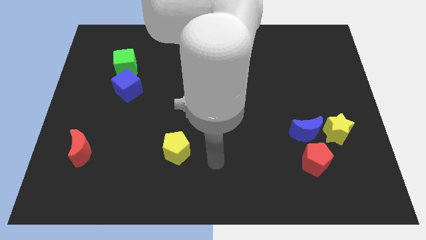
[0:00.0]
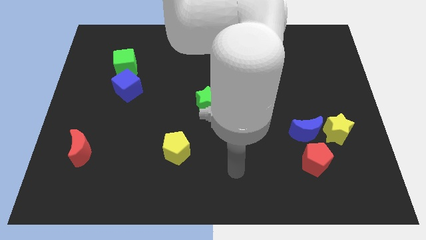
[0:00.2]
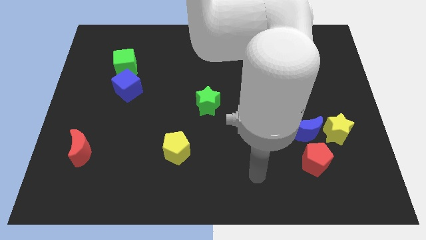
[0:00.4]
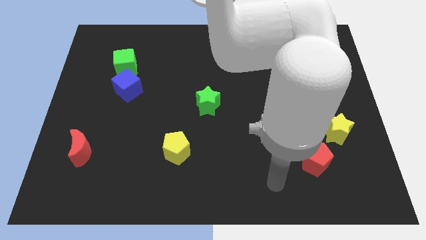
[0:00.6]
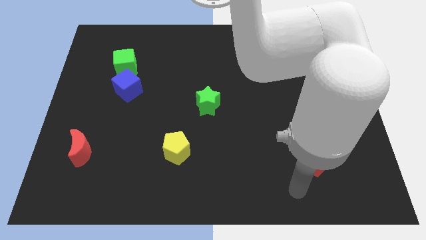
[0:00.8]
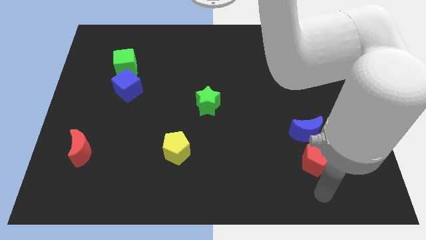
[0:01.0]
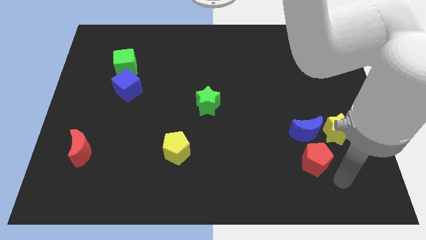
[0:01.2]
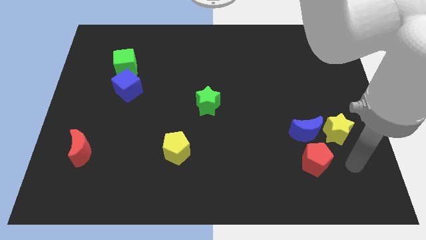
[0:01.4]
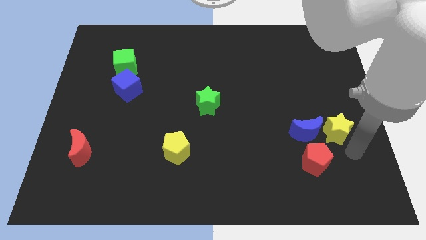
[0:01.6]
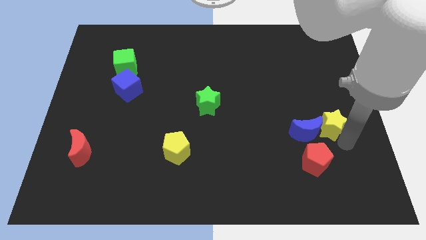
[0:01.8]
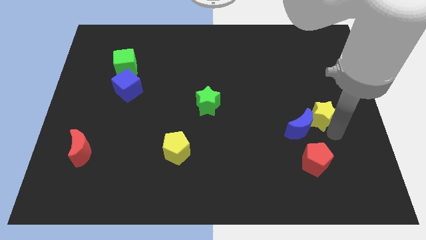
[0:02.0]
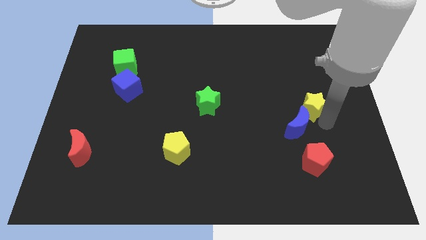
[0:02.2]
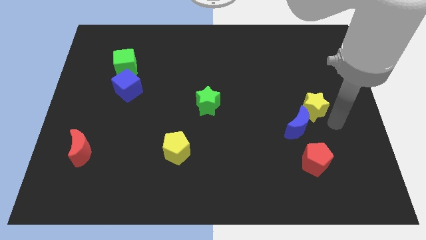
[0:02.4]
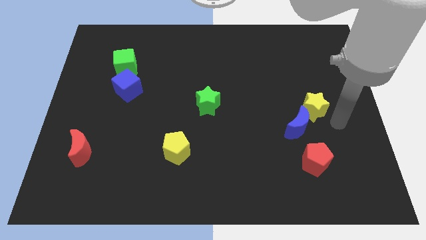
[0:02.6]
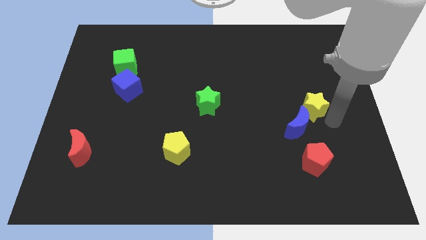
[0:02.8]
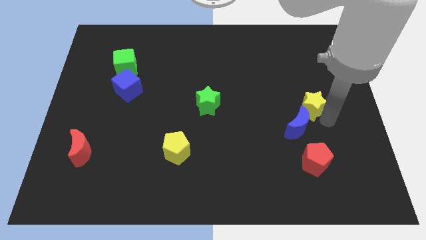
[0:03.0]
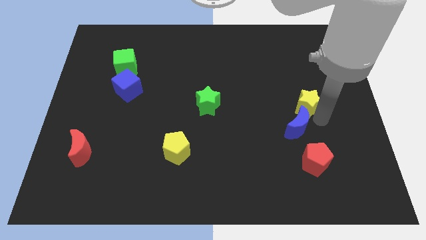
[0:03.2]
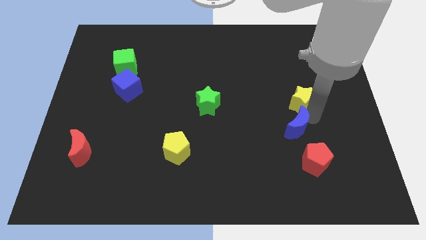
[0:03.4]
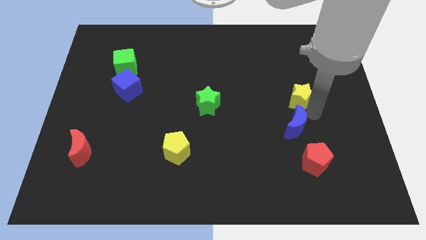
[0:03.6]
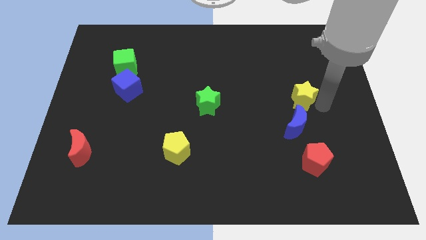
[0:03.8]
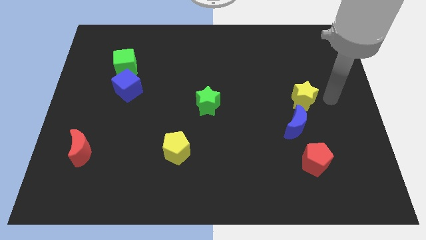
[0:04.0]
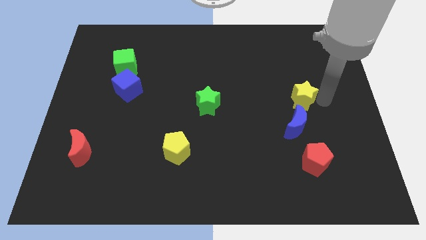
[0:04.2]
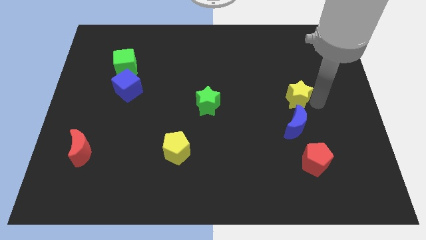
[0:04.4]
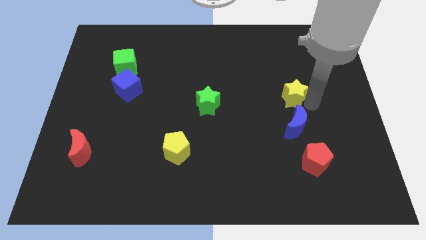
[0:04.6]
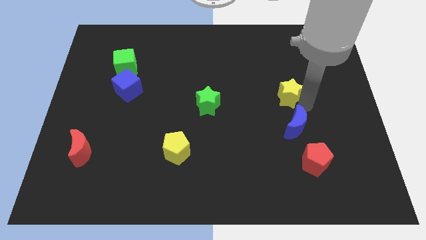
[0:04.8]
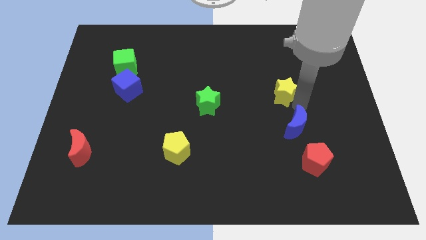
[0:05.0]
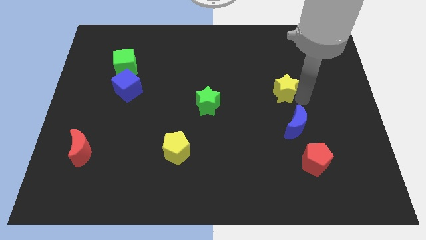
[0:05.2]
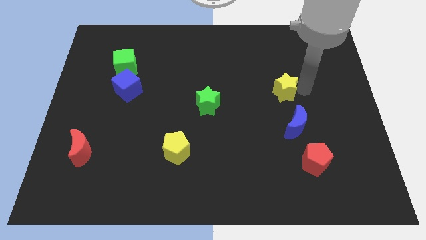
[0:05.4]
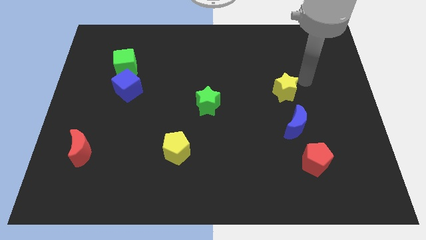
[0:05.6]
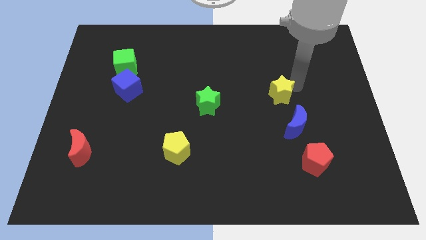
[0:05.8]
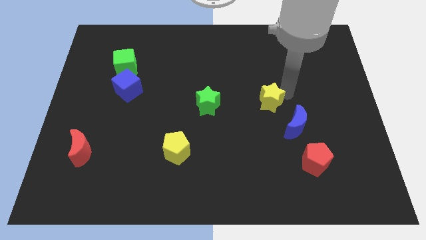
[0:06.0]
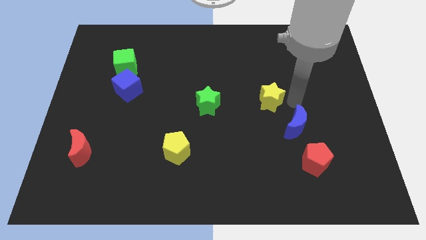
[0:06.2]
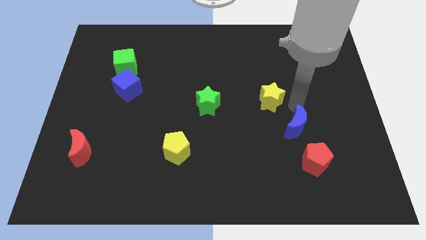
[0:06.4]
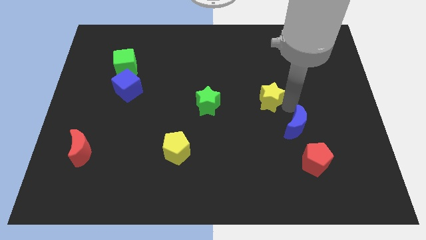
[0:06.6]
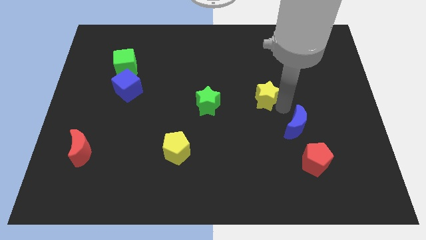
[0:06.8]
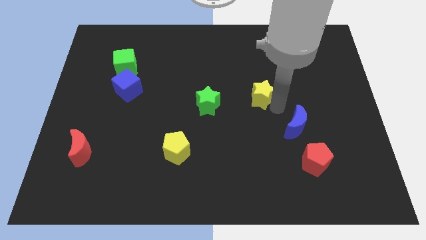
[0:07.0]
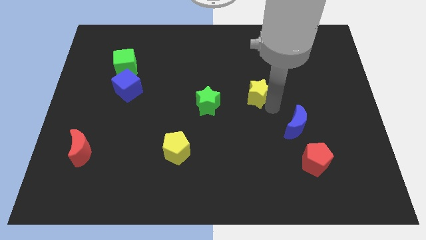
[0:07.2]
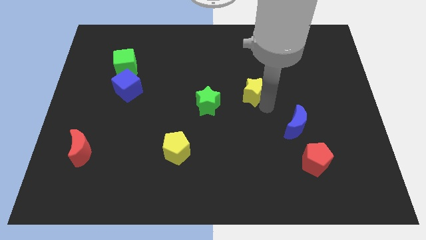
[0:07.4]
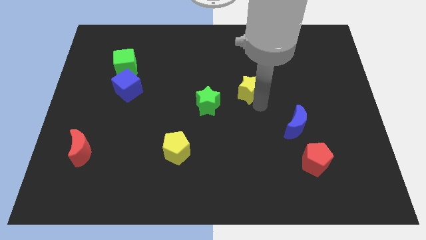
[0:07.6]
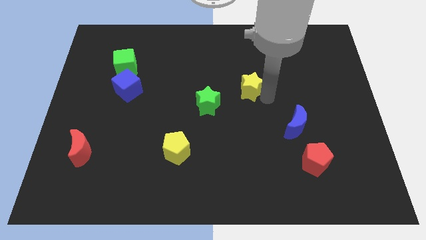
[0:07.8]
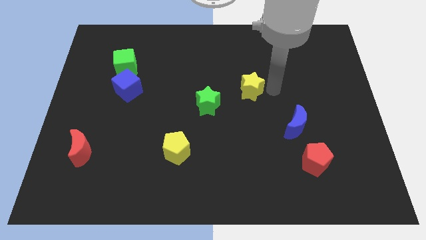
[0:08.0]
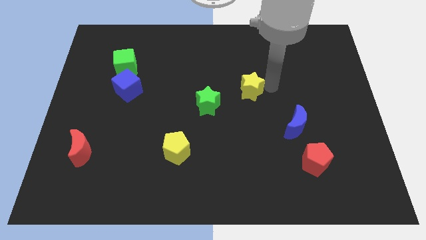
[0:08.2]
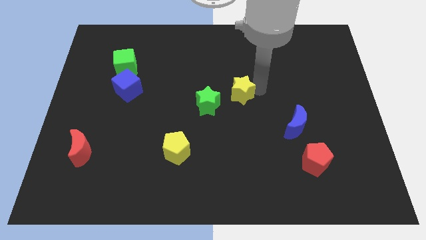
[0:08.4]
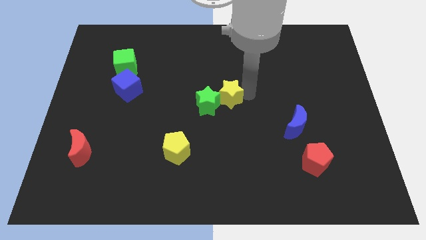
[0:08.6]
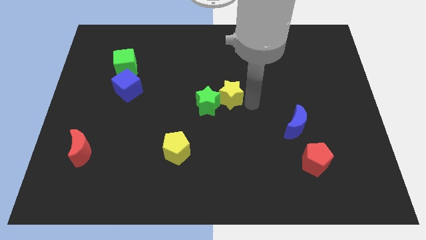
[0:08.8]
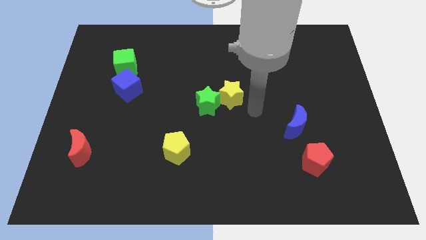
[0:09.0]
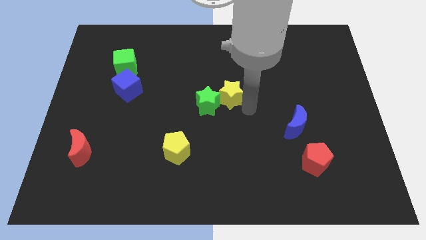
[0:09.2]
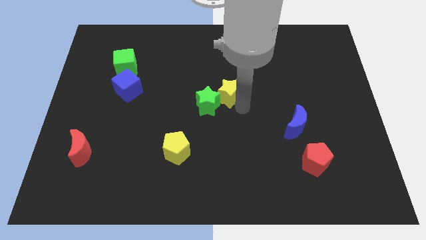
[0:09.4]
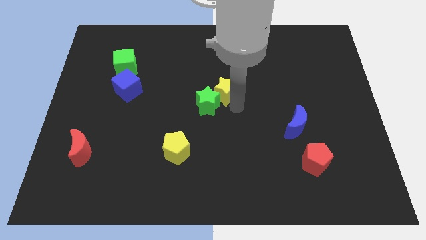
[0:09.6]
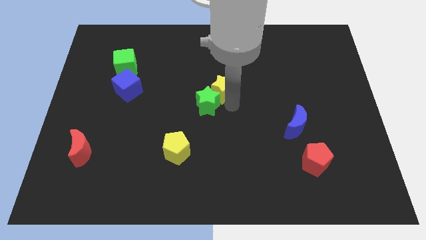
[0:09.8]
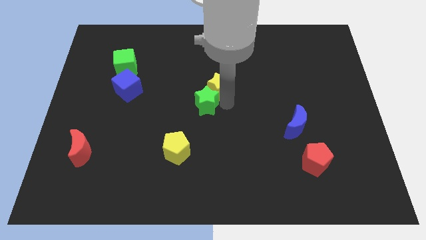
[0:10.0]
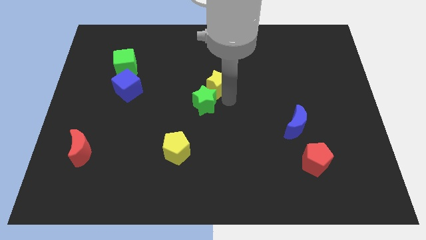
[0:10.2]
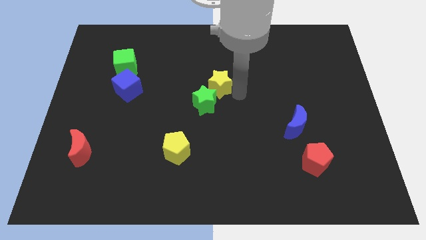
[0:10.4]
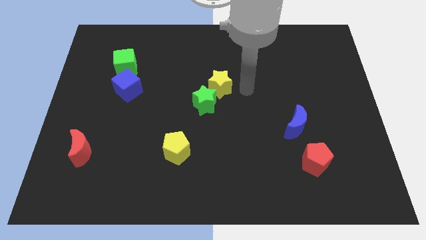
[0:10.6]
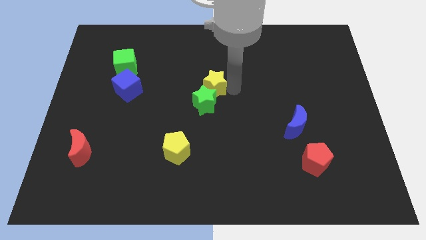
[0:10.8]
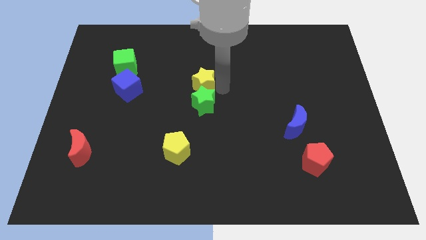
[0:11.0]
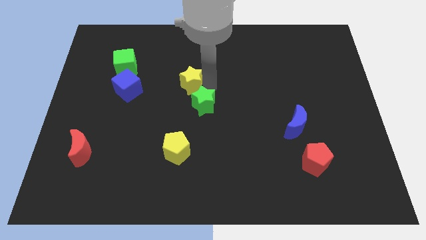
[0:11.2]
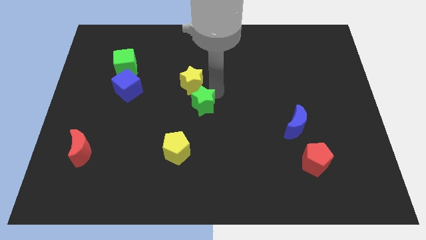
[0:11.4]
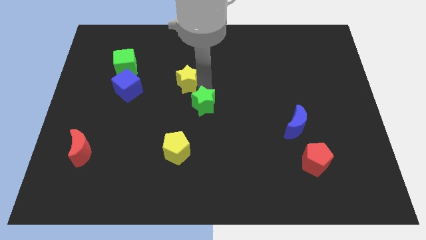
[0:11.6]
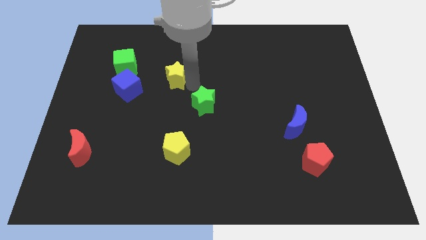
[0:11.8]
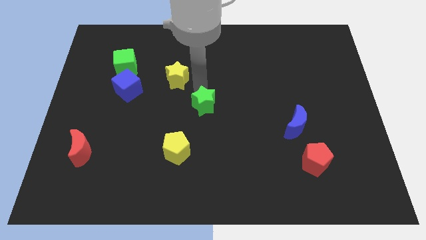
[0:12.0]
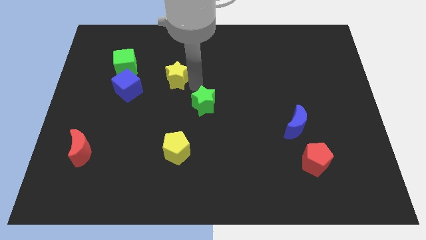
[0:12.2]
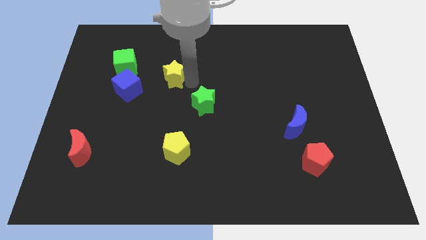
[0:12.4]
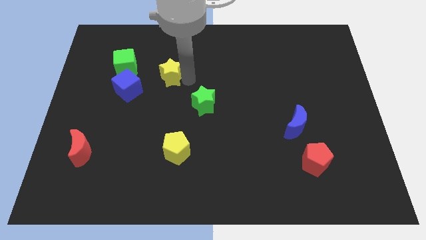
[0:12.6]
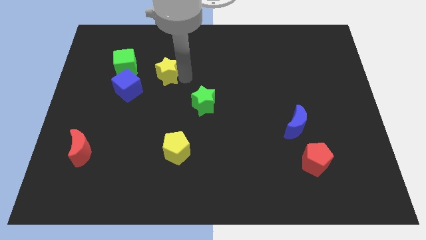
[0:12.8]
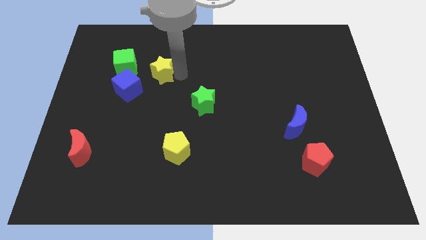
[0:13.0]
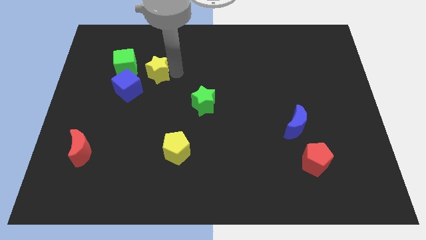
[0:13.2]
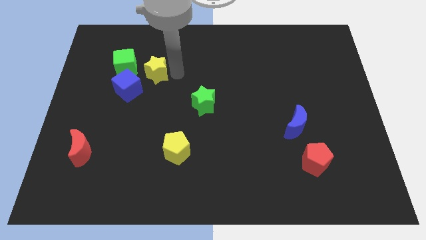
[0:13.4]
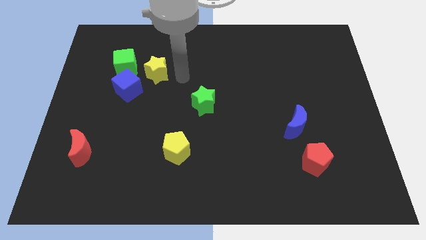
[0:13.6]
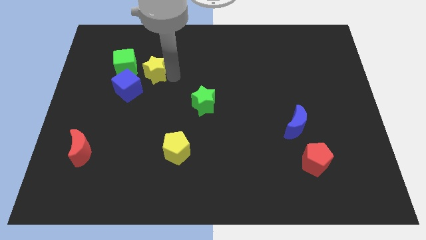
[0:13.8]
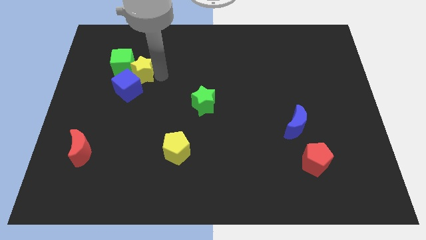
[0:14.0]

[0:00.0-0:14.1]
slide the yellow star to the green cube

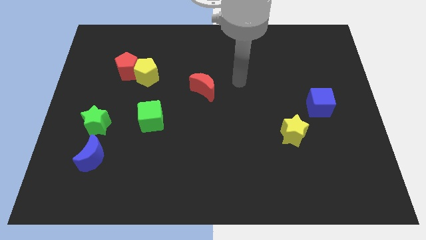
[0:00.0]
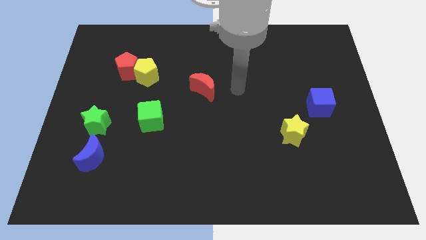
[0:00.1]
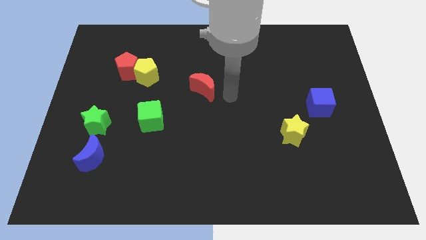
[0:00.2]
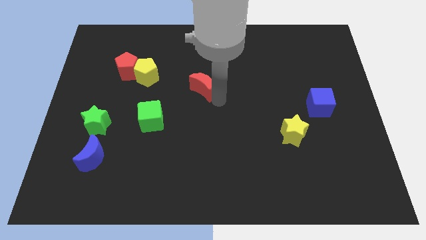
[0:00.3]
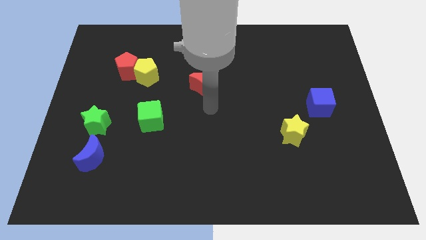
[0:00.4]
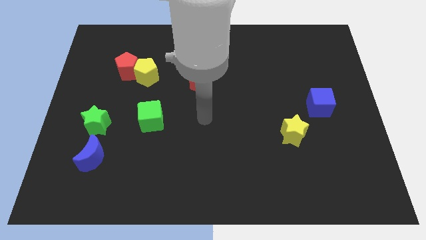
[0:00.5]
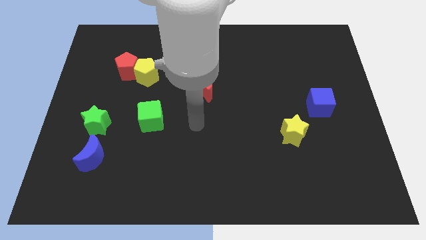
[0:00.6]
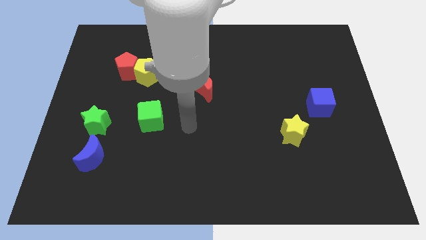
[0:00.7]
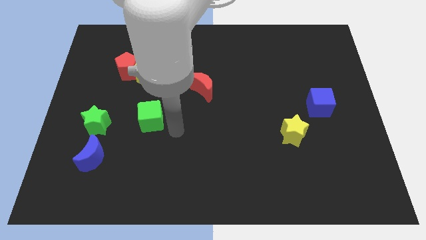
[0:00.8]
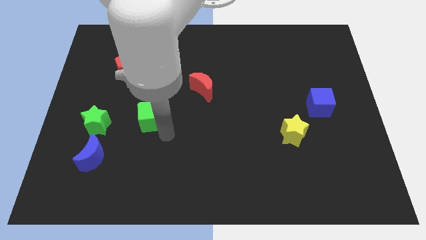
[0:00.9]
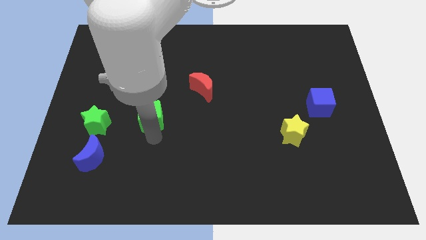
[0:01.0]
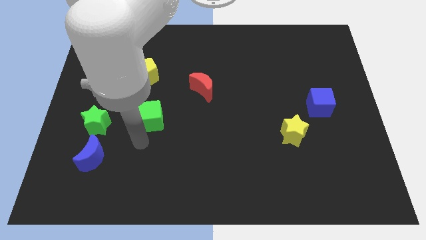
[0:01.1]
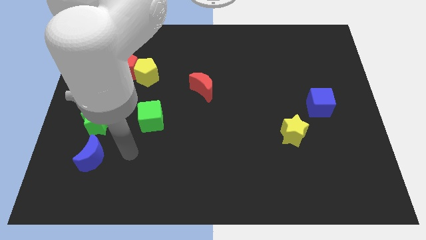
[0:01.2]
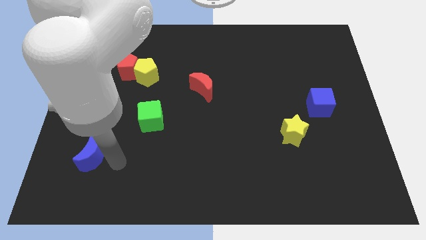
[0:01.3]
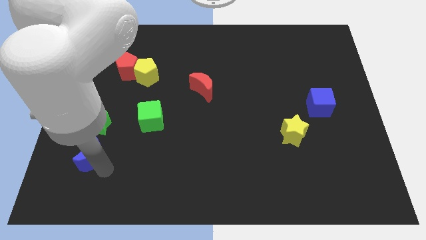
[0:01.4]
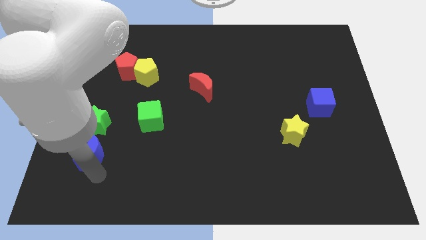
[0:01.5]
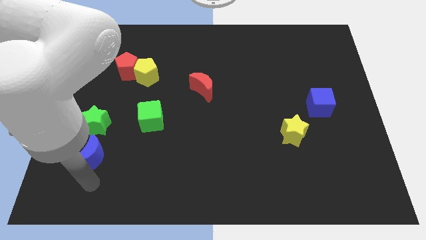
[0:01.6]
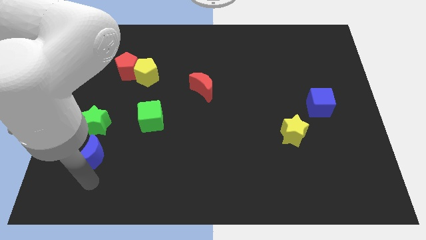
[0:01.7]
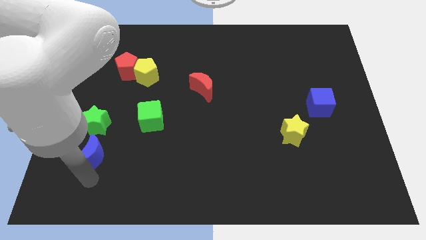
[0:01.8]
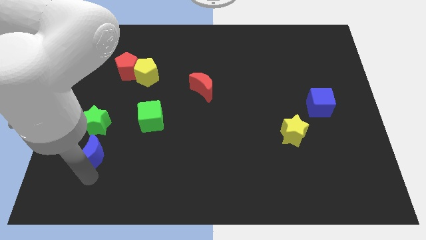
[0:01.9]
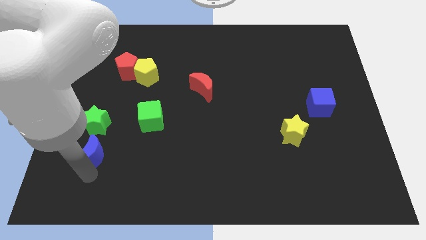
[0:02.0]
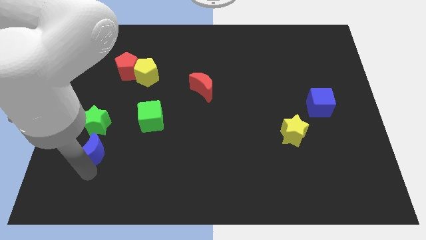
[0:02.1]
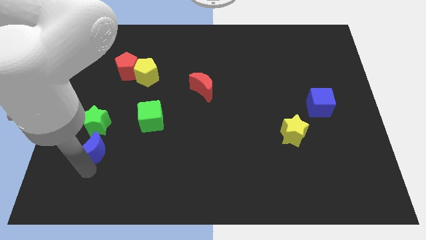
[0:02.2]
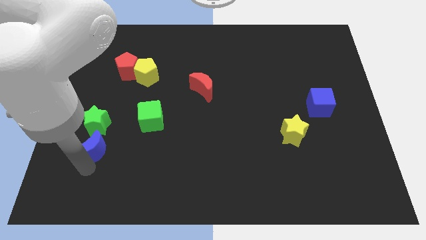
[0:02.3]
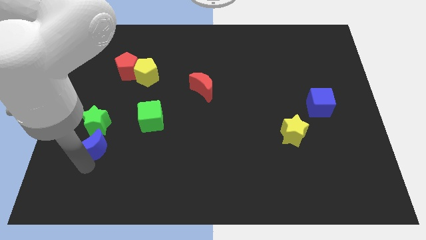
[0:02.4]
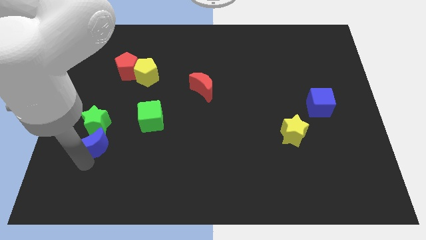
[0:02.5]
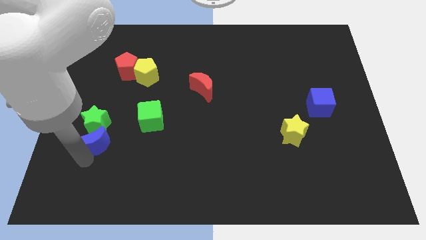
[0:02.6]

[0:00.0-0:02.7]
push the blue moon close to the green star
